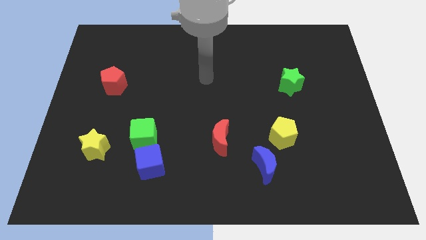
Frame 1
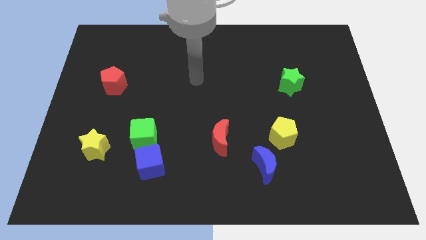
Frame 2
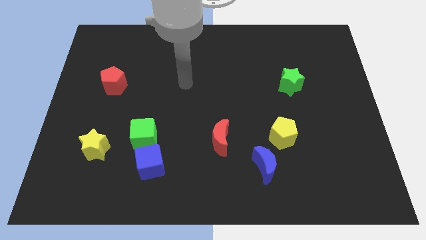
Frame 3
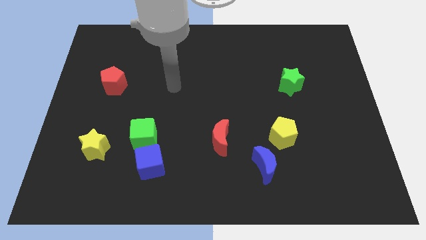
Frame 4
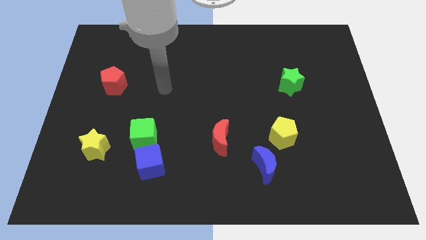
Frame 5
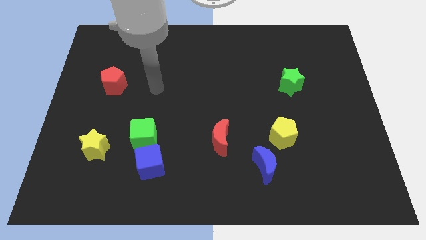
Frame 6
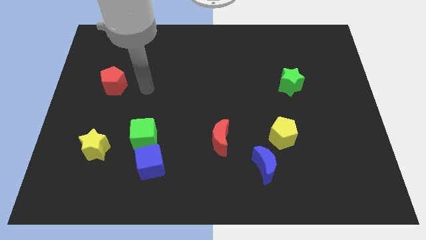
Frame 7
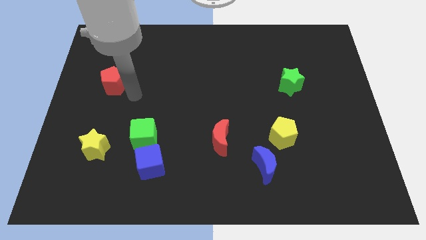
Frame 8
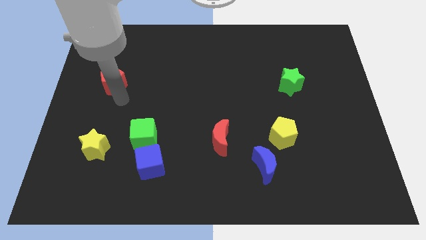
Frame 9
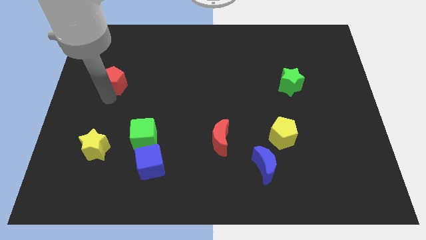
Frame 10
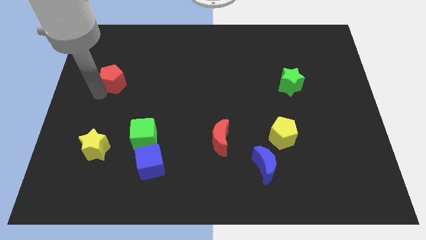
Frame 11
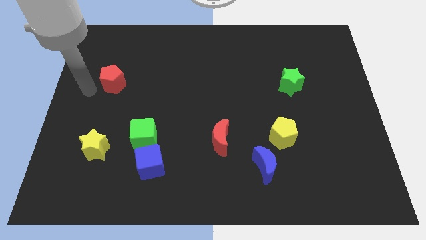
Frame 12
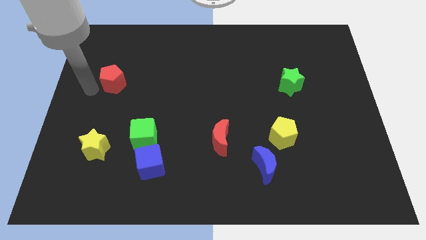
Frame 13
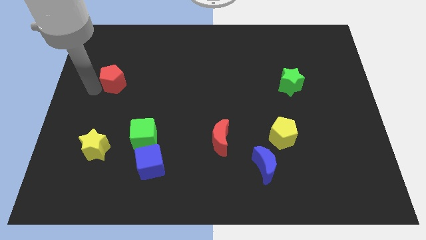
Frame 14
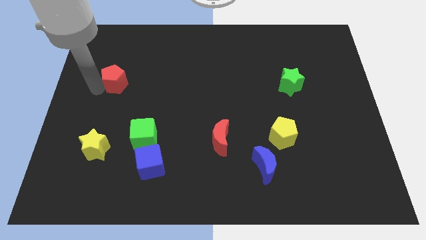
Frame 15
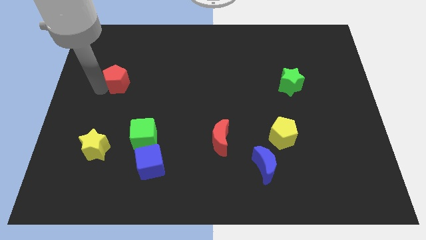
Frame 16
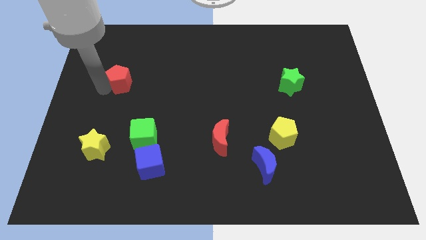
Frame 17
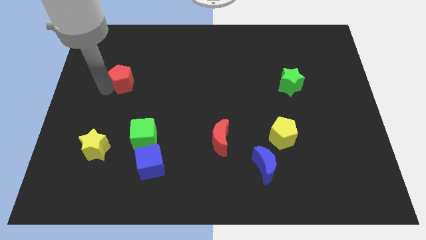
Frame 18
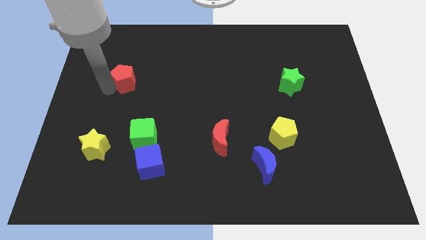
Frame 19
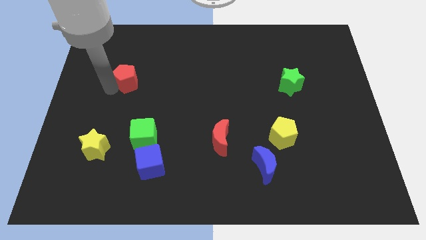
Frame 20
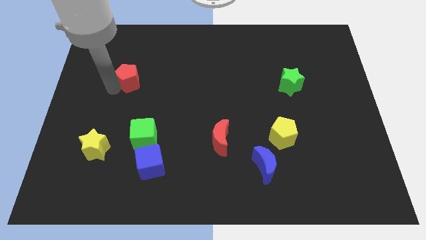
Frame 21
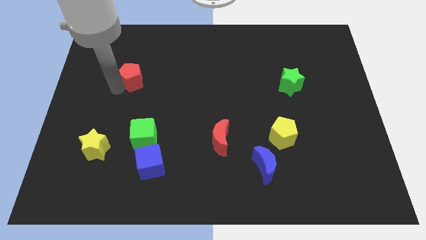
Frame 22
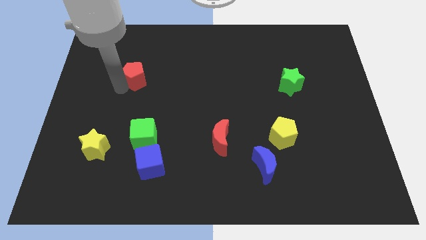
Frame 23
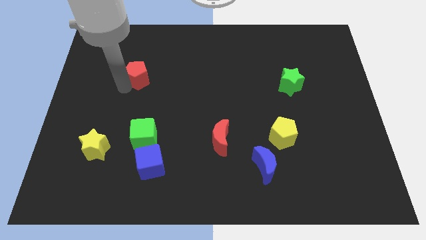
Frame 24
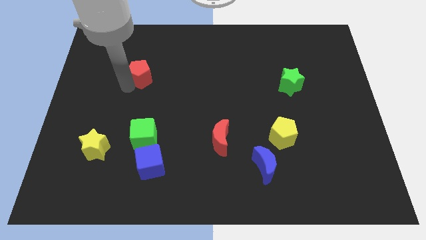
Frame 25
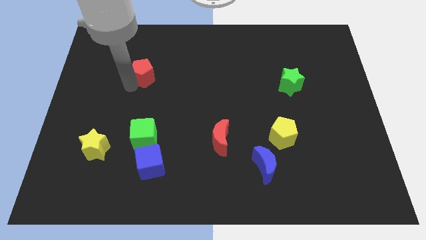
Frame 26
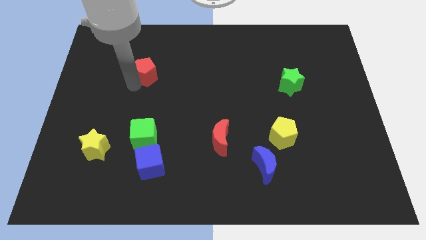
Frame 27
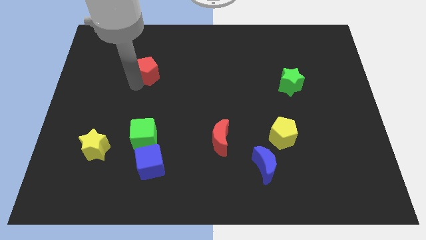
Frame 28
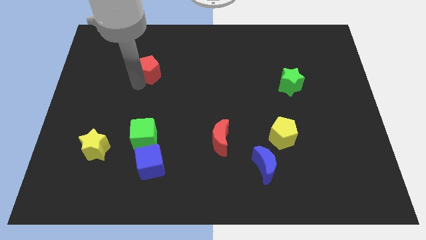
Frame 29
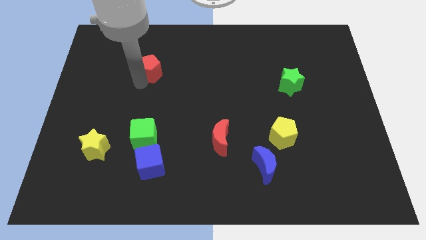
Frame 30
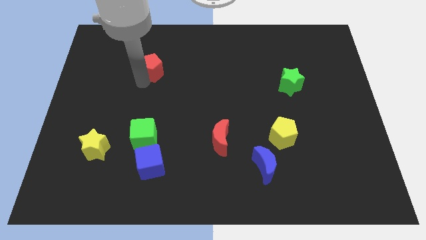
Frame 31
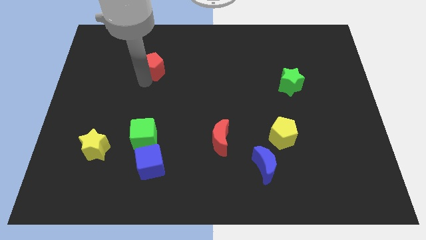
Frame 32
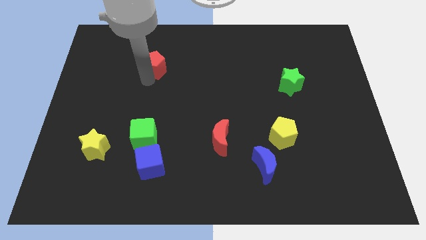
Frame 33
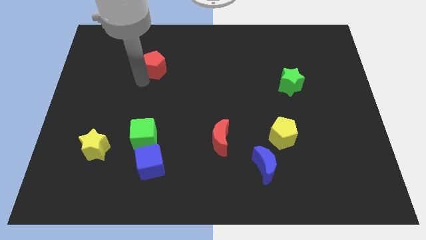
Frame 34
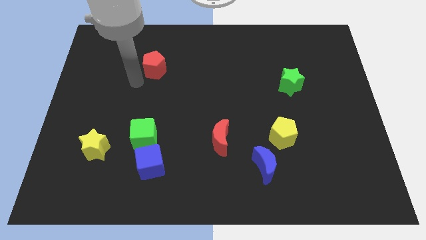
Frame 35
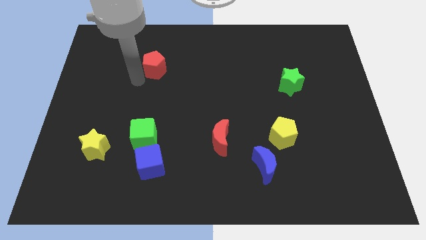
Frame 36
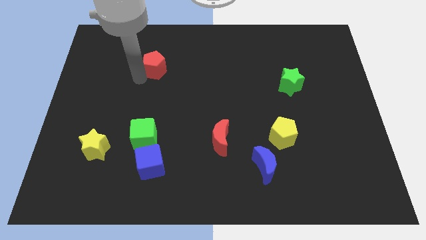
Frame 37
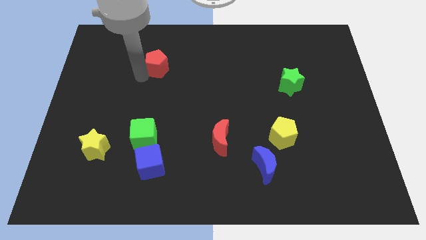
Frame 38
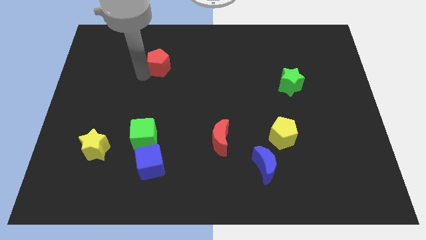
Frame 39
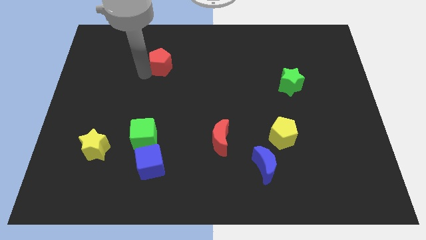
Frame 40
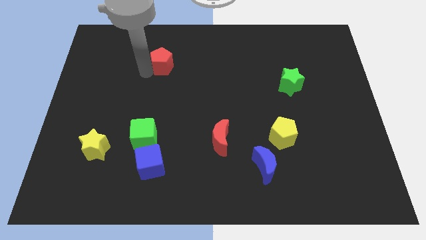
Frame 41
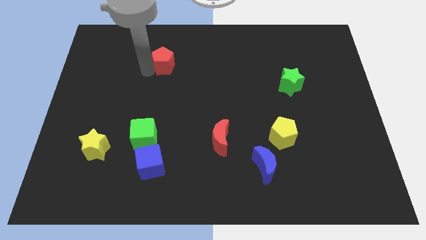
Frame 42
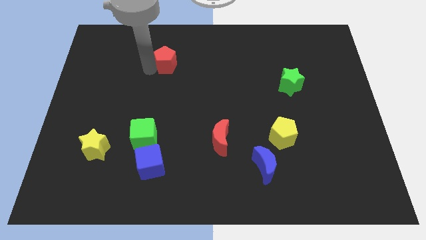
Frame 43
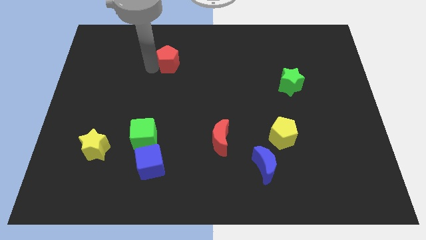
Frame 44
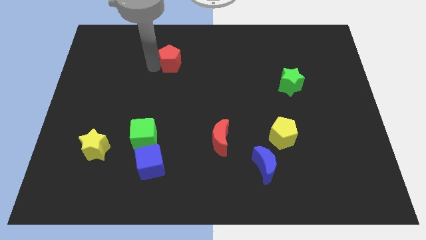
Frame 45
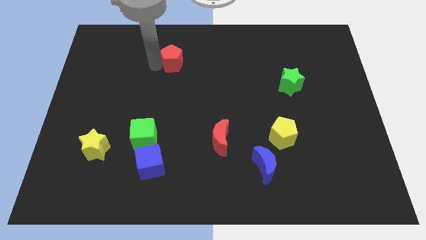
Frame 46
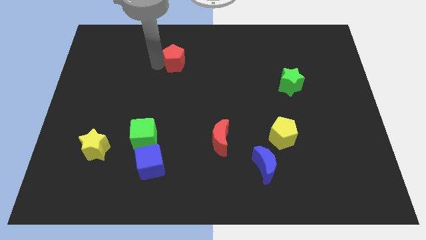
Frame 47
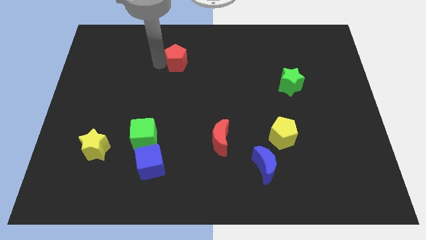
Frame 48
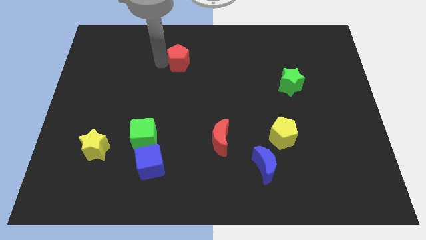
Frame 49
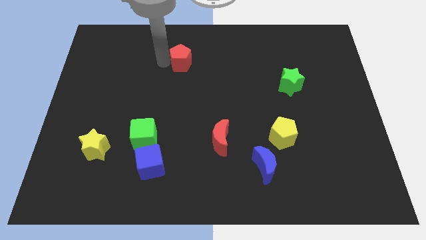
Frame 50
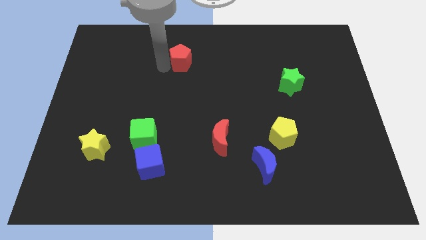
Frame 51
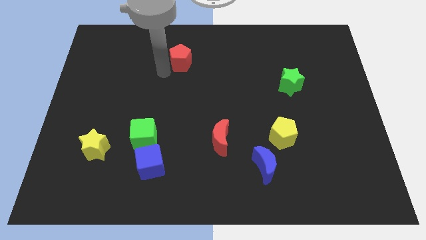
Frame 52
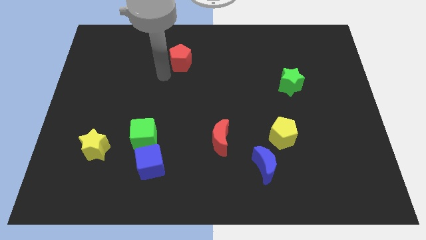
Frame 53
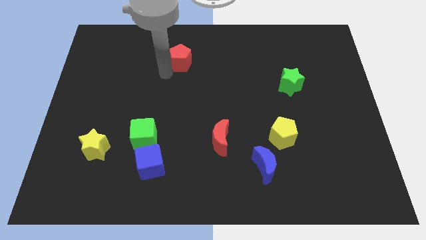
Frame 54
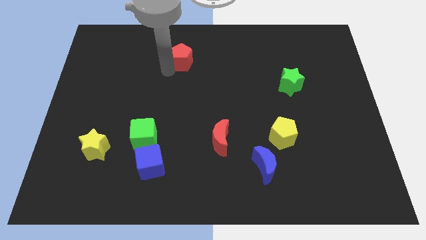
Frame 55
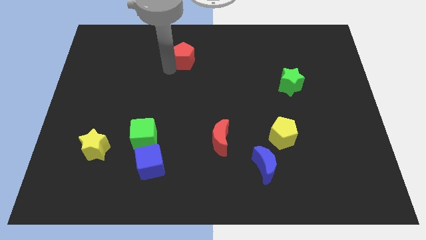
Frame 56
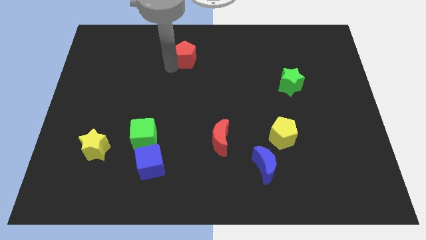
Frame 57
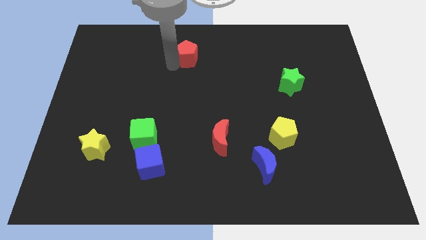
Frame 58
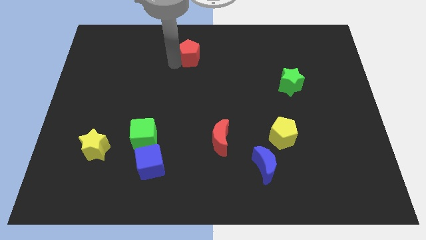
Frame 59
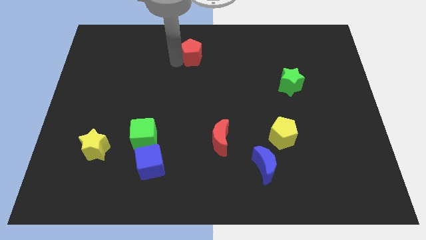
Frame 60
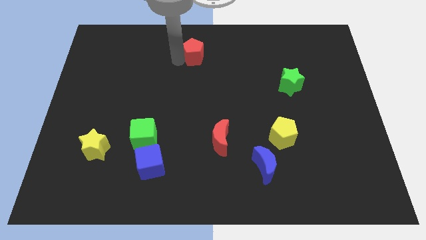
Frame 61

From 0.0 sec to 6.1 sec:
push the red pentagon to the top
